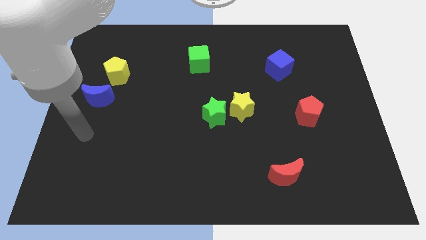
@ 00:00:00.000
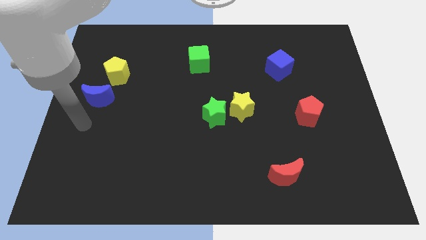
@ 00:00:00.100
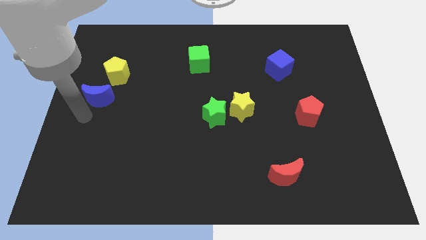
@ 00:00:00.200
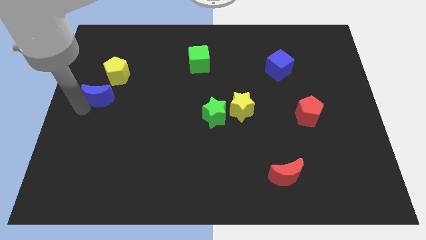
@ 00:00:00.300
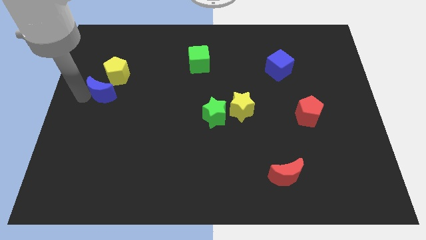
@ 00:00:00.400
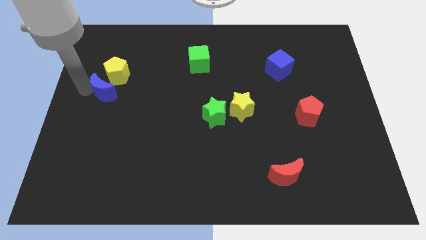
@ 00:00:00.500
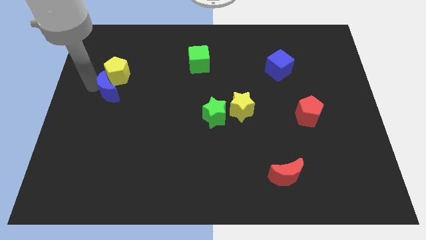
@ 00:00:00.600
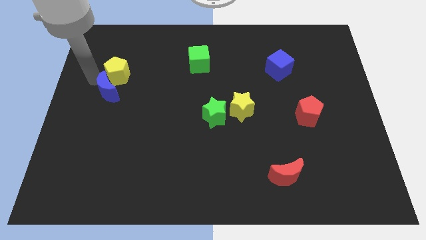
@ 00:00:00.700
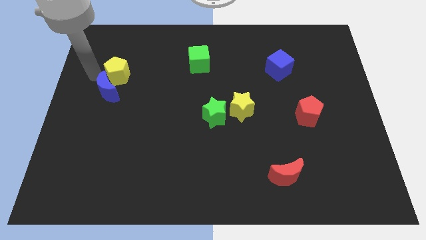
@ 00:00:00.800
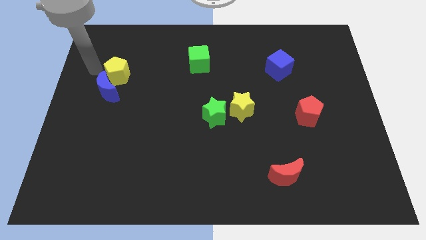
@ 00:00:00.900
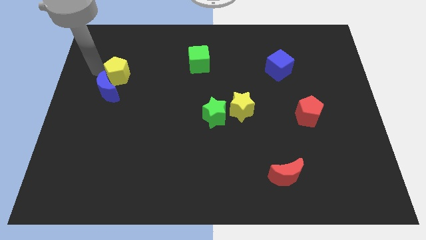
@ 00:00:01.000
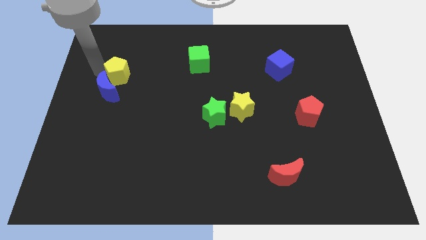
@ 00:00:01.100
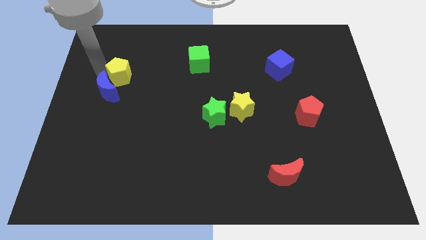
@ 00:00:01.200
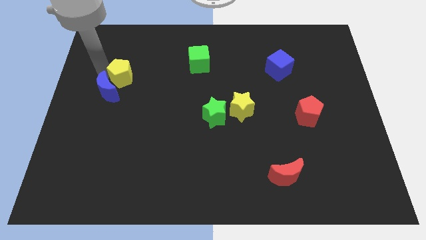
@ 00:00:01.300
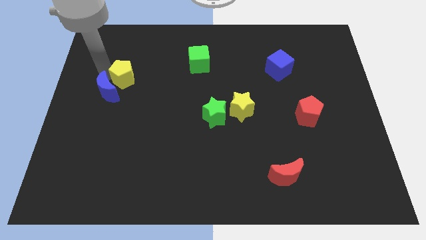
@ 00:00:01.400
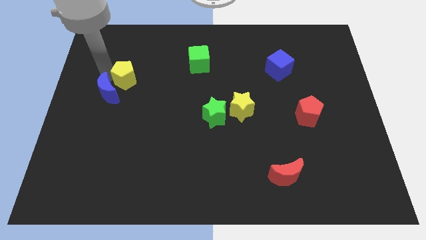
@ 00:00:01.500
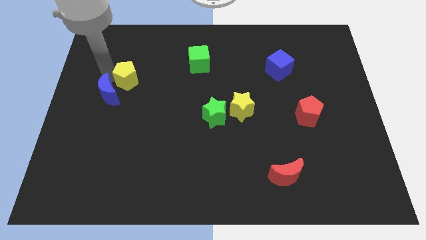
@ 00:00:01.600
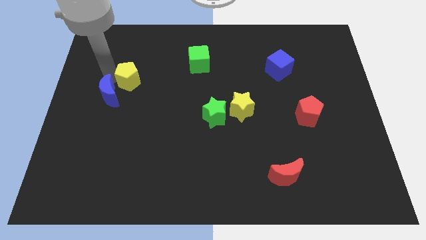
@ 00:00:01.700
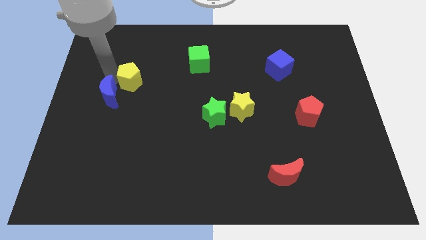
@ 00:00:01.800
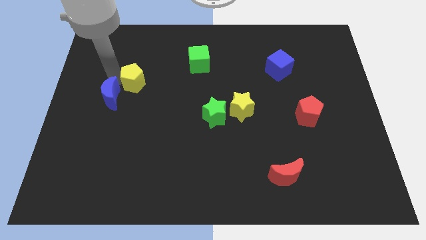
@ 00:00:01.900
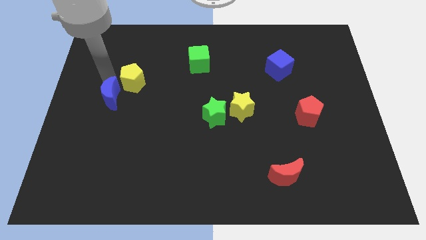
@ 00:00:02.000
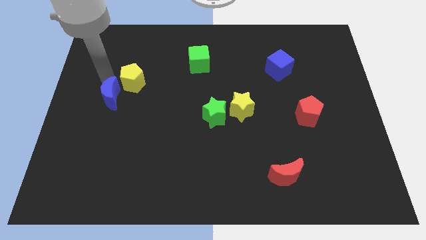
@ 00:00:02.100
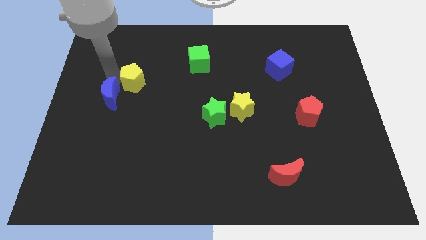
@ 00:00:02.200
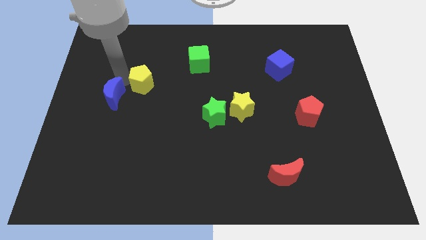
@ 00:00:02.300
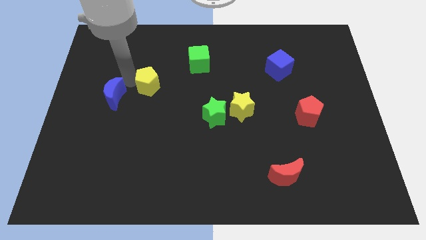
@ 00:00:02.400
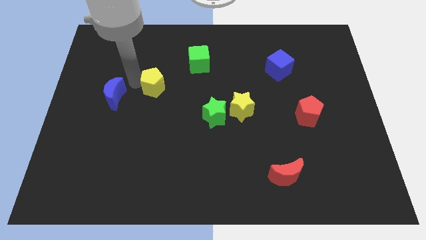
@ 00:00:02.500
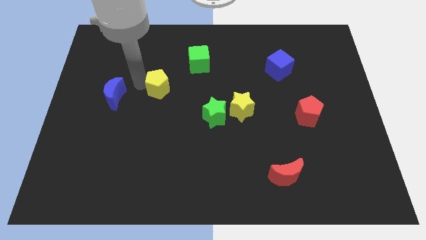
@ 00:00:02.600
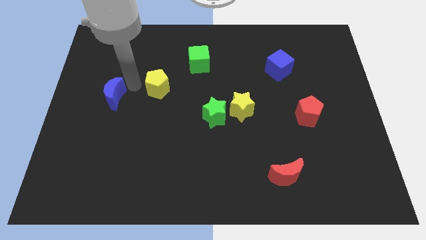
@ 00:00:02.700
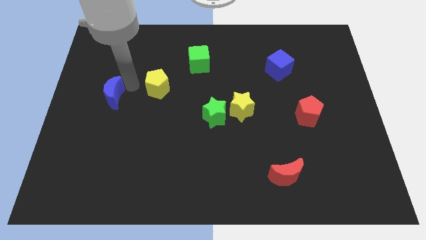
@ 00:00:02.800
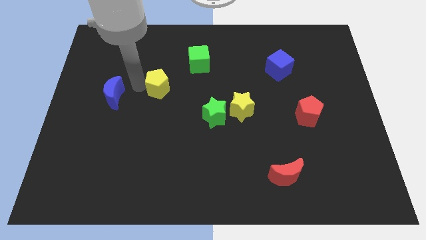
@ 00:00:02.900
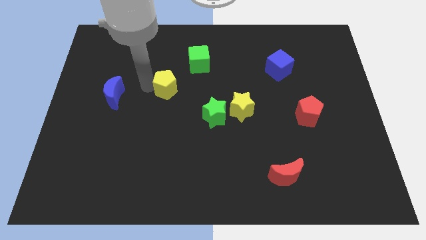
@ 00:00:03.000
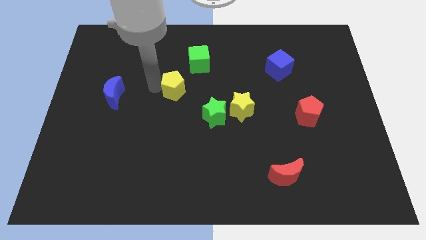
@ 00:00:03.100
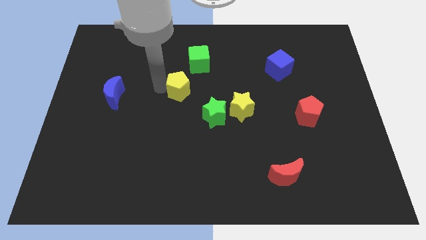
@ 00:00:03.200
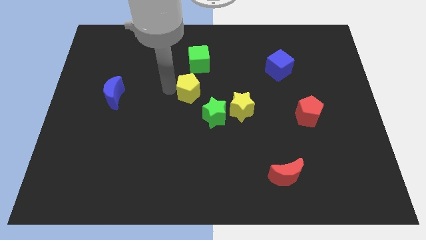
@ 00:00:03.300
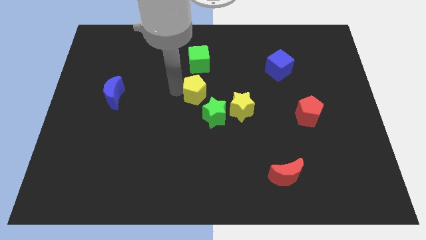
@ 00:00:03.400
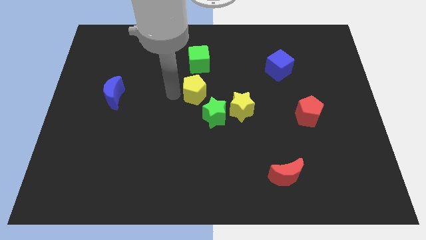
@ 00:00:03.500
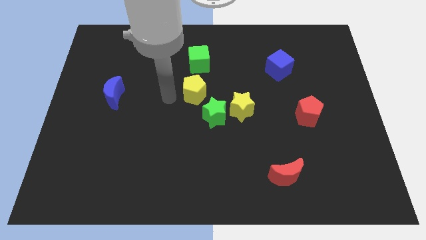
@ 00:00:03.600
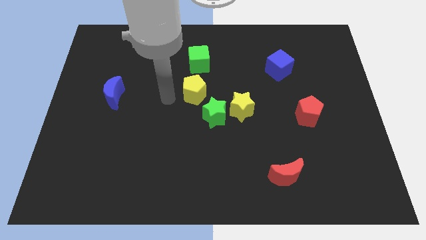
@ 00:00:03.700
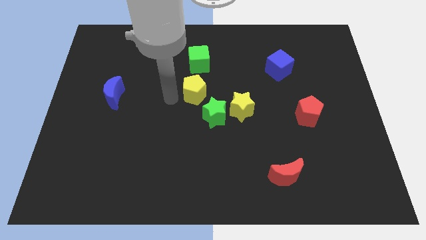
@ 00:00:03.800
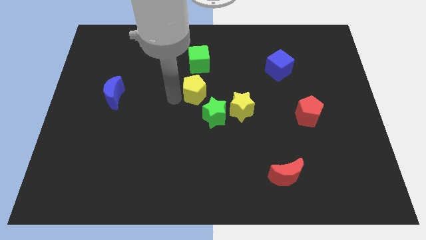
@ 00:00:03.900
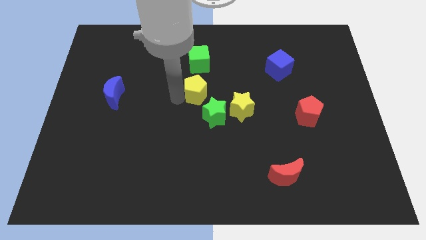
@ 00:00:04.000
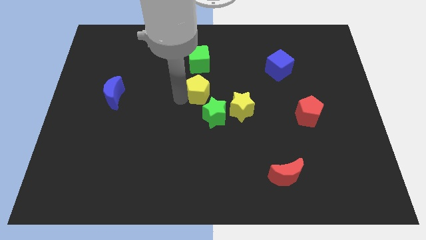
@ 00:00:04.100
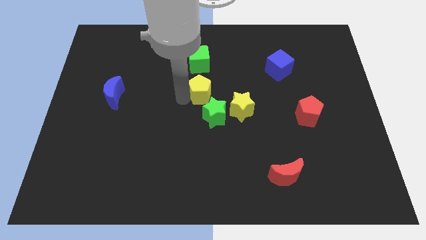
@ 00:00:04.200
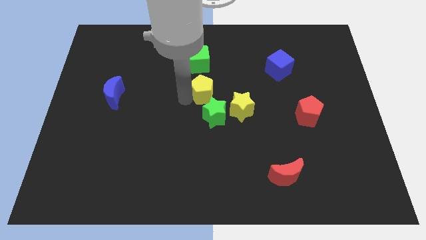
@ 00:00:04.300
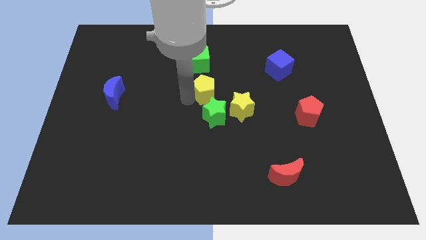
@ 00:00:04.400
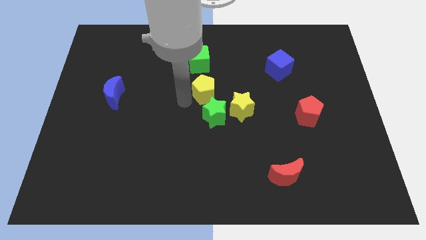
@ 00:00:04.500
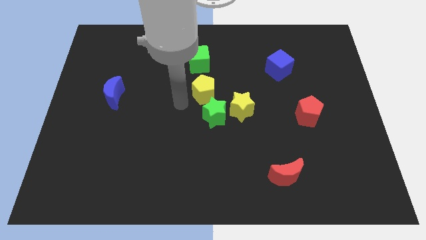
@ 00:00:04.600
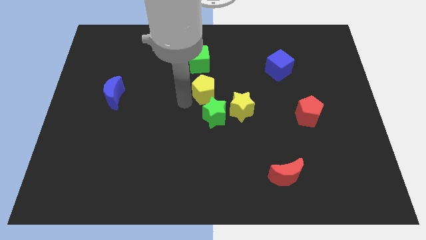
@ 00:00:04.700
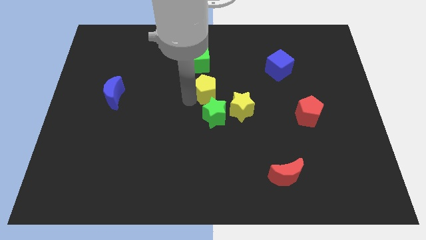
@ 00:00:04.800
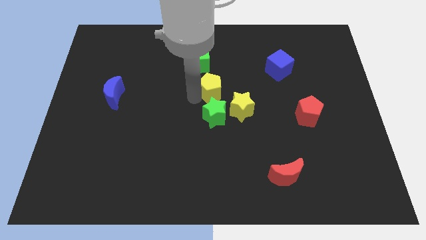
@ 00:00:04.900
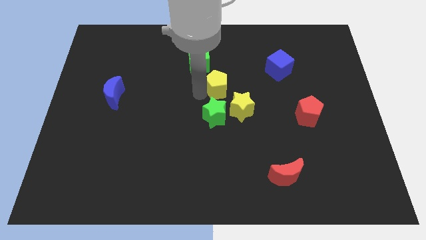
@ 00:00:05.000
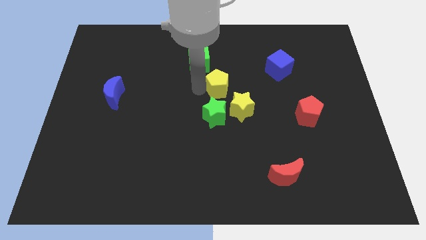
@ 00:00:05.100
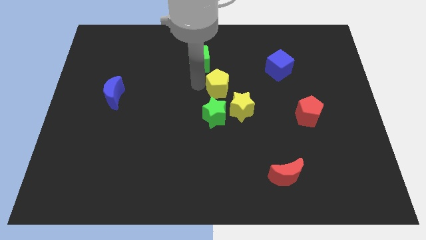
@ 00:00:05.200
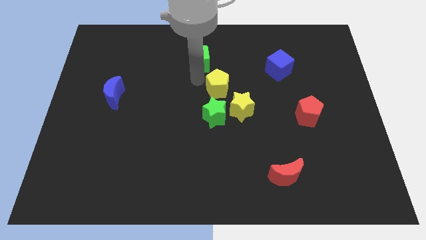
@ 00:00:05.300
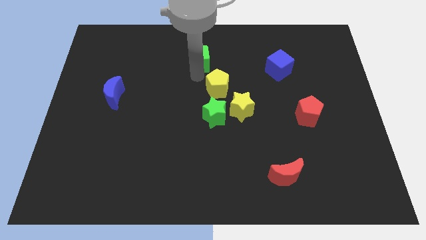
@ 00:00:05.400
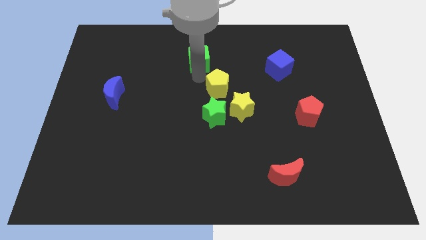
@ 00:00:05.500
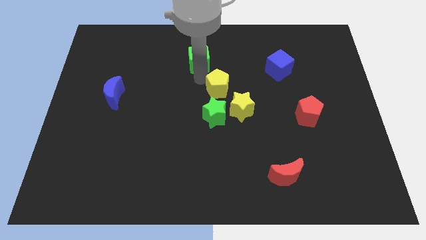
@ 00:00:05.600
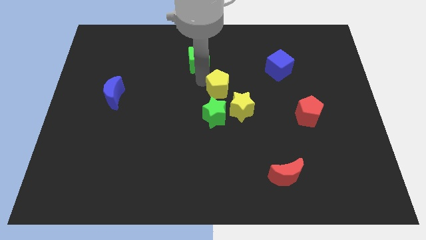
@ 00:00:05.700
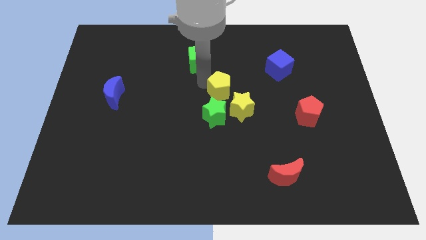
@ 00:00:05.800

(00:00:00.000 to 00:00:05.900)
slide the yellow pentagon to the top right of the green star
